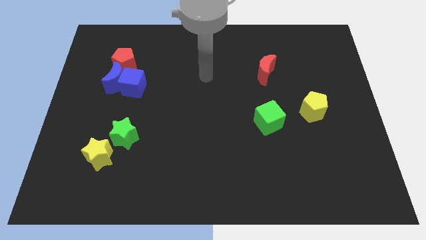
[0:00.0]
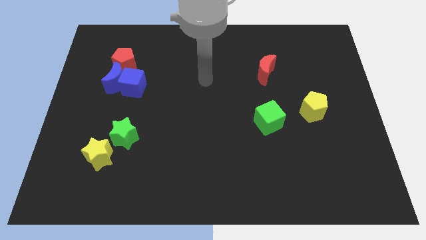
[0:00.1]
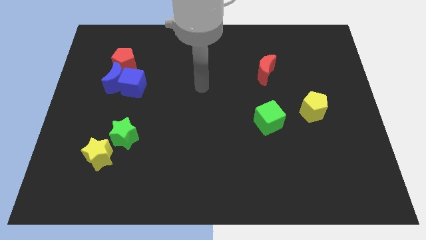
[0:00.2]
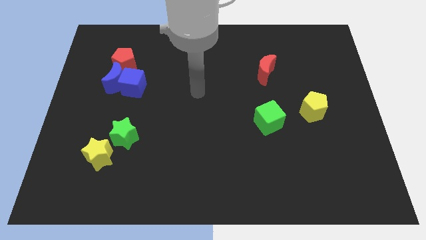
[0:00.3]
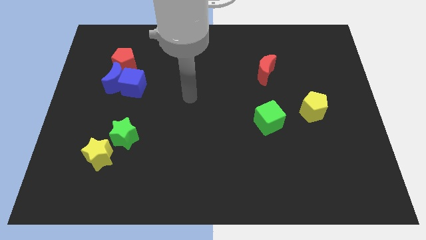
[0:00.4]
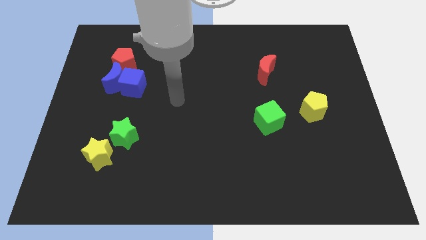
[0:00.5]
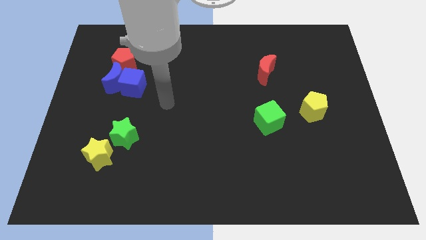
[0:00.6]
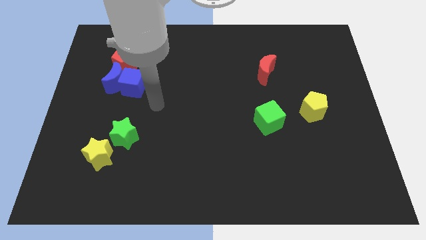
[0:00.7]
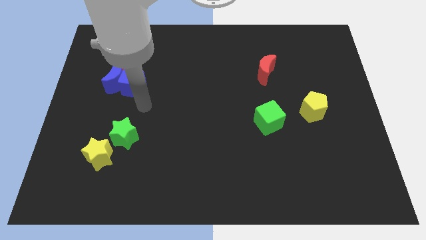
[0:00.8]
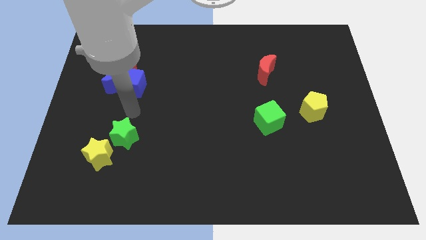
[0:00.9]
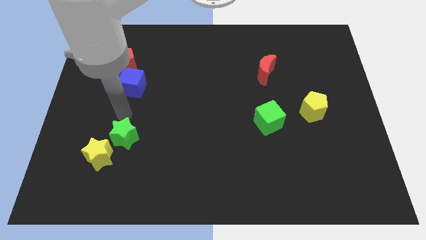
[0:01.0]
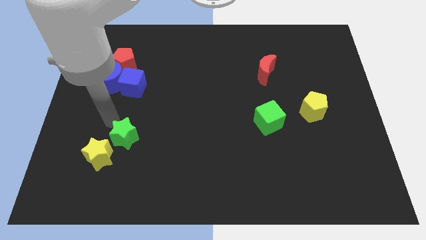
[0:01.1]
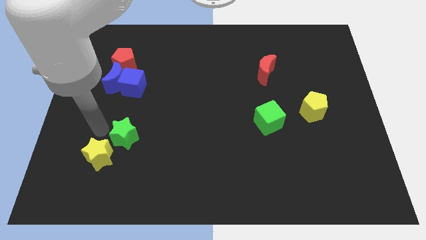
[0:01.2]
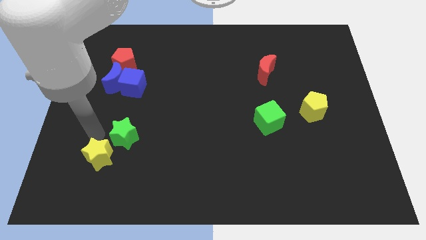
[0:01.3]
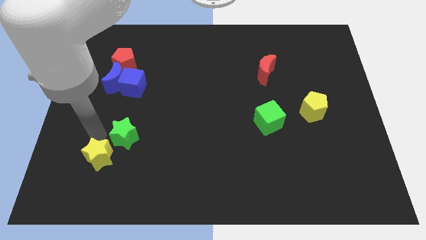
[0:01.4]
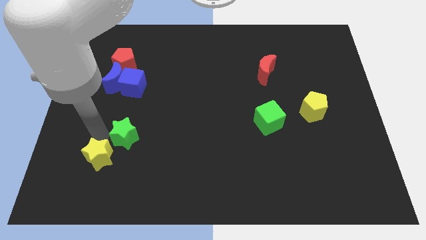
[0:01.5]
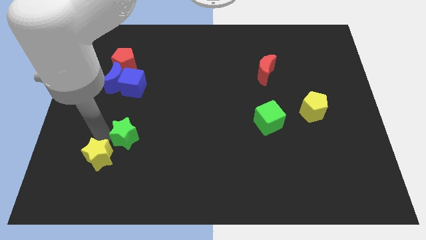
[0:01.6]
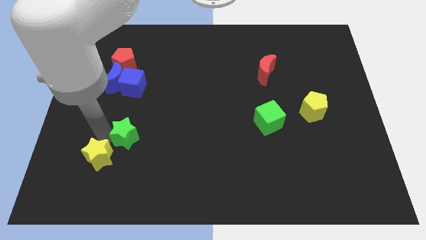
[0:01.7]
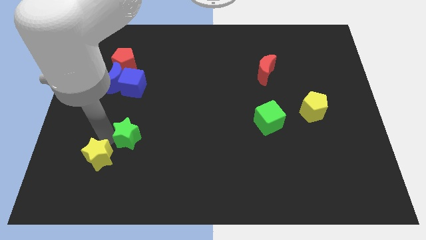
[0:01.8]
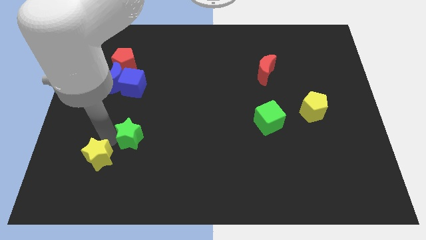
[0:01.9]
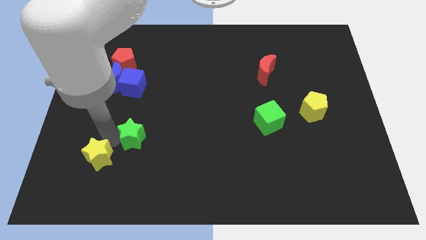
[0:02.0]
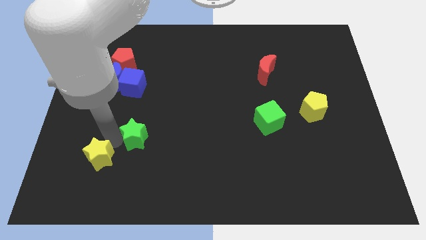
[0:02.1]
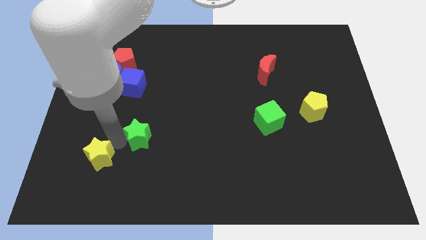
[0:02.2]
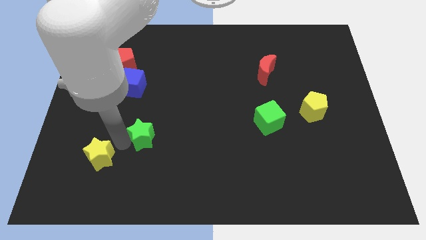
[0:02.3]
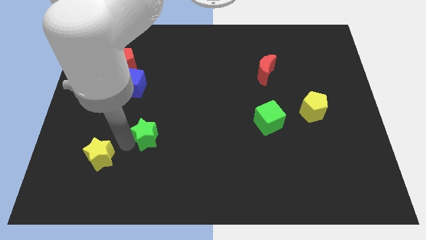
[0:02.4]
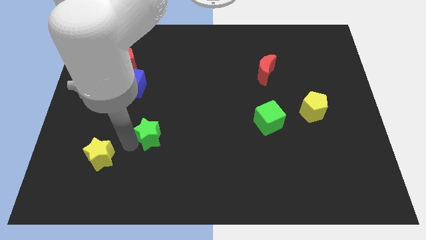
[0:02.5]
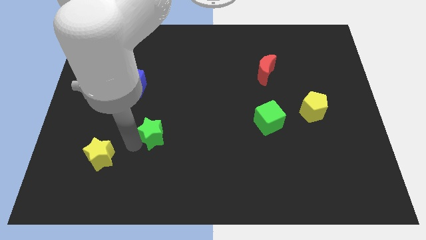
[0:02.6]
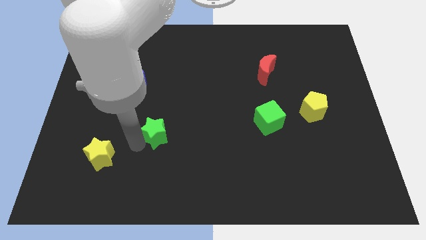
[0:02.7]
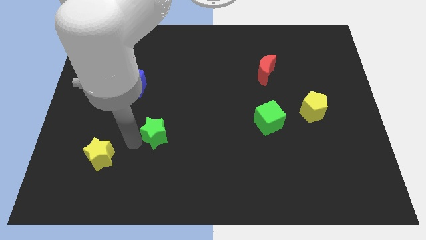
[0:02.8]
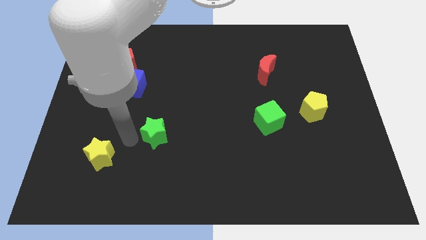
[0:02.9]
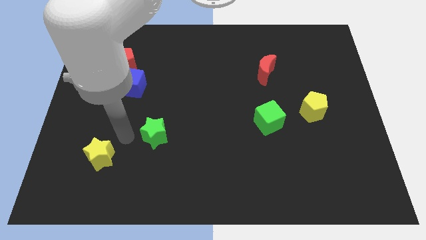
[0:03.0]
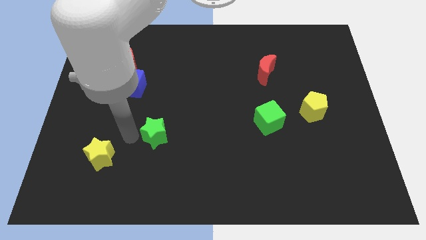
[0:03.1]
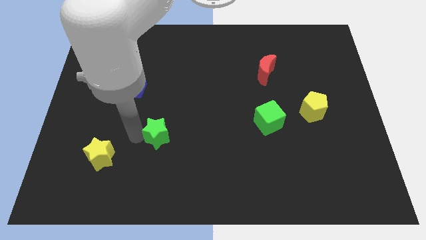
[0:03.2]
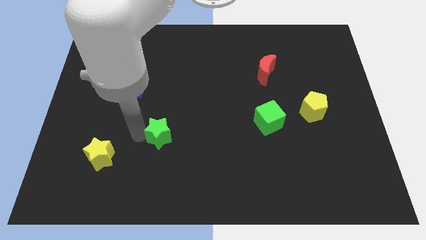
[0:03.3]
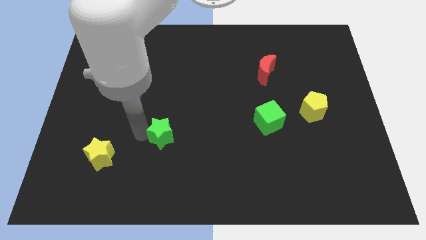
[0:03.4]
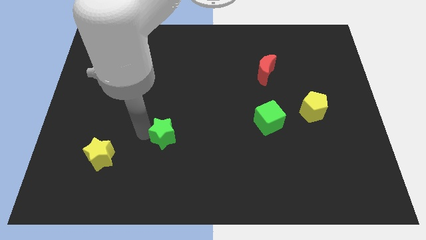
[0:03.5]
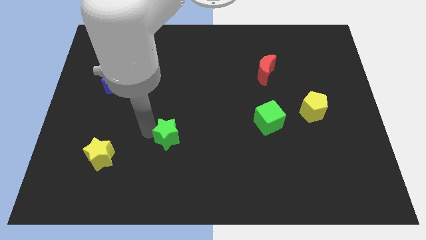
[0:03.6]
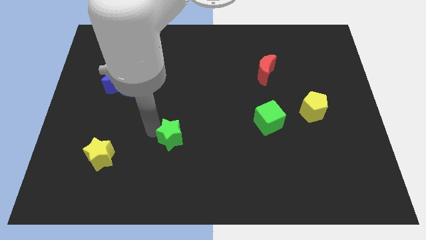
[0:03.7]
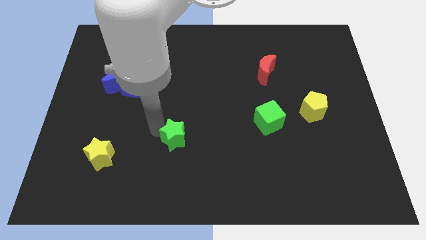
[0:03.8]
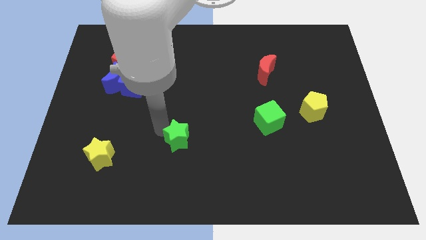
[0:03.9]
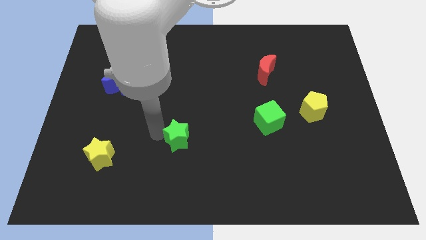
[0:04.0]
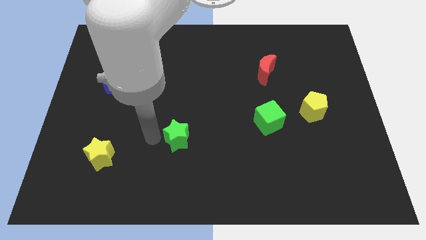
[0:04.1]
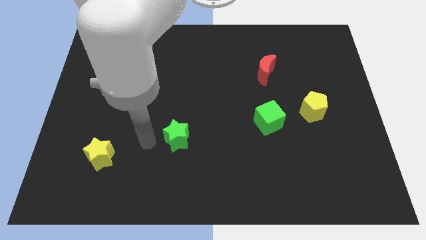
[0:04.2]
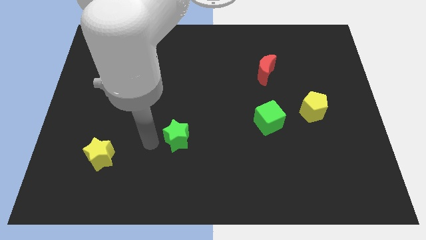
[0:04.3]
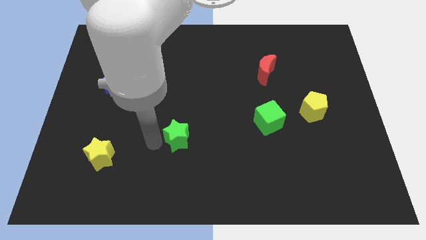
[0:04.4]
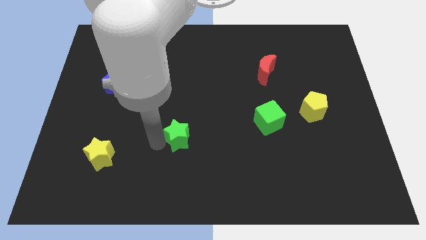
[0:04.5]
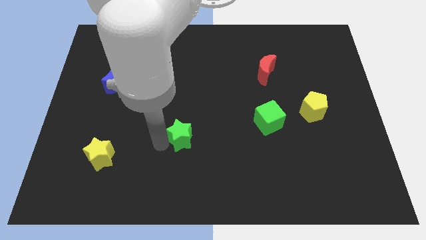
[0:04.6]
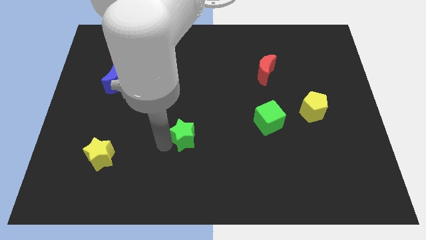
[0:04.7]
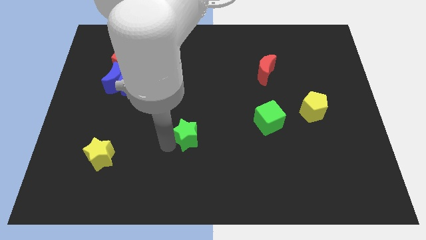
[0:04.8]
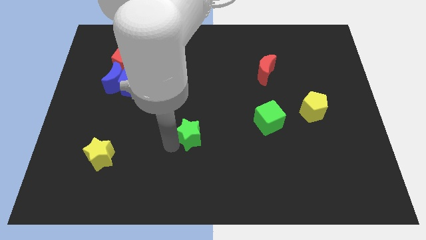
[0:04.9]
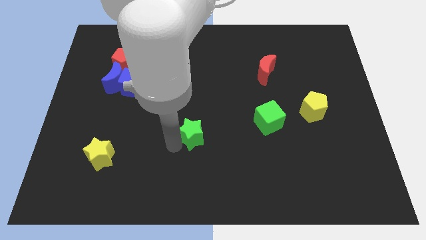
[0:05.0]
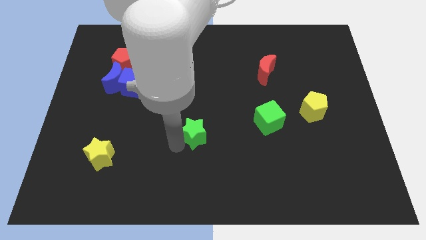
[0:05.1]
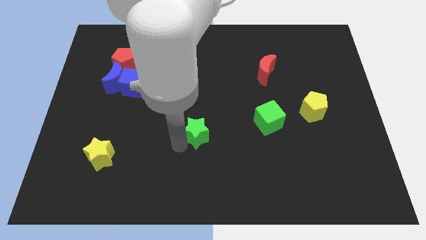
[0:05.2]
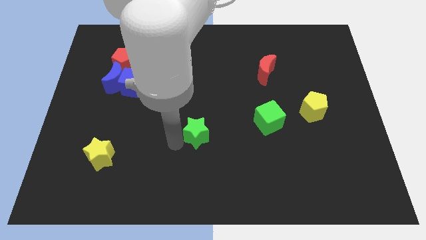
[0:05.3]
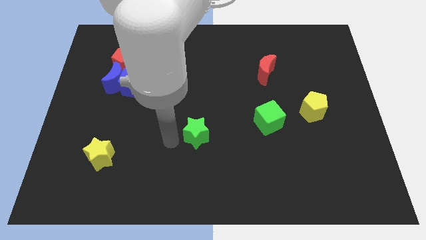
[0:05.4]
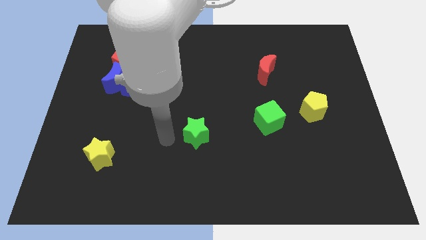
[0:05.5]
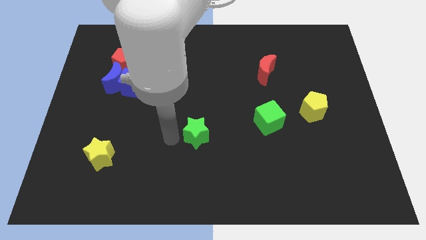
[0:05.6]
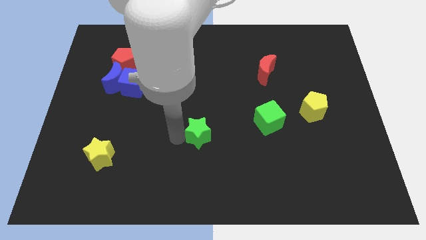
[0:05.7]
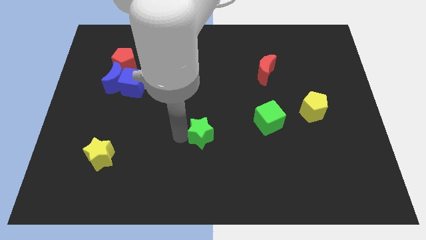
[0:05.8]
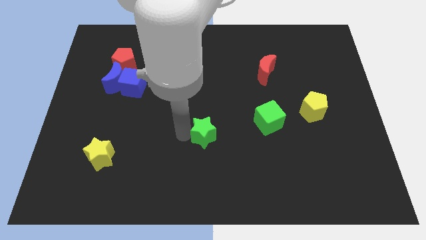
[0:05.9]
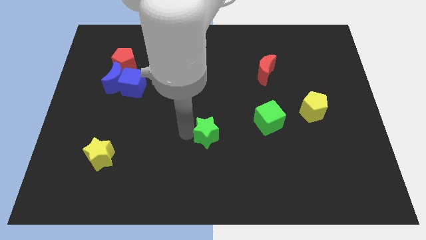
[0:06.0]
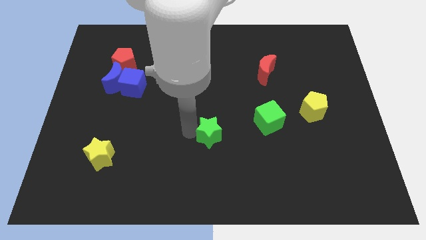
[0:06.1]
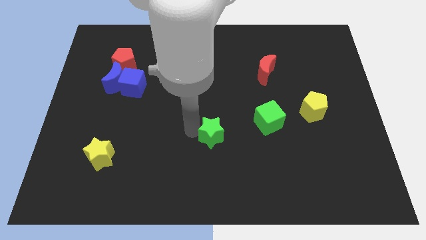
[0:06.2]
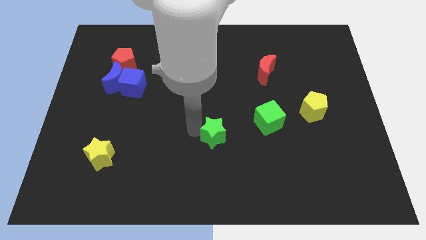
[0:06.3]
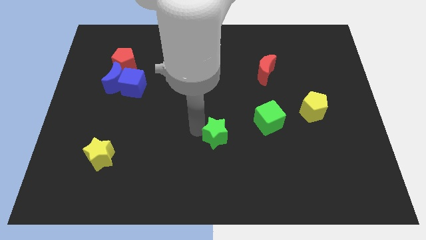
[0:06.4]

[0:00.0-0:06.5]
move the green star right

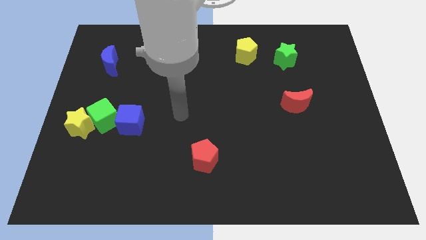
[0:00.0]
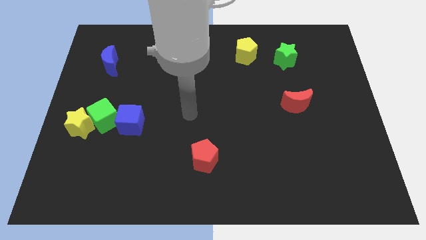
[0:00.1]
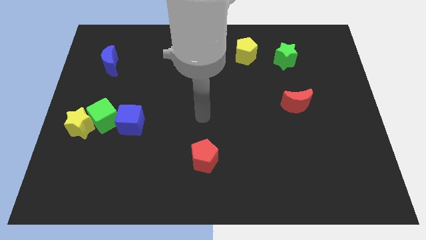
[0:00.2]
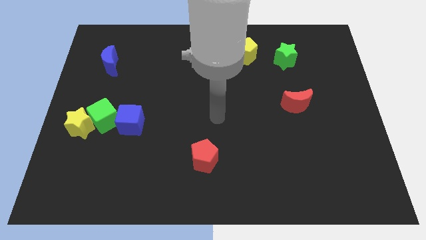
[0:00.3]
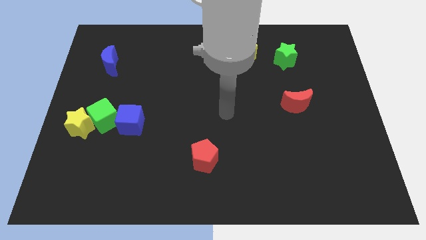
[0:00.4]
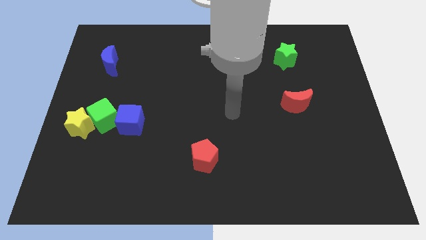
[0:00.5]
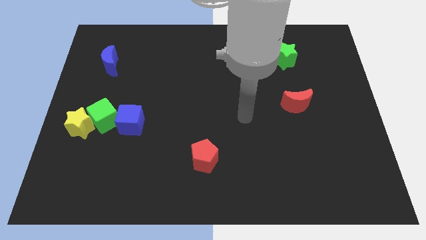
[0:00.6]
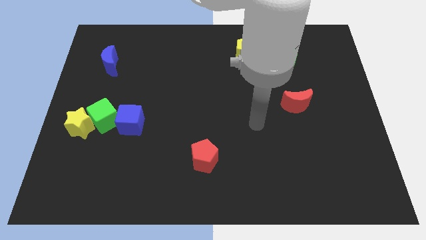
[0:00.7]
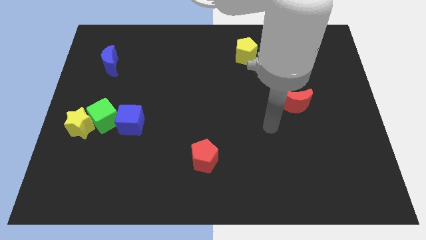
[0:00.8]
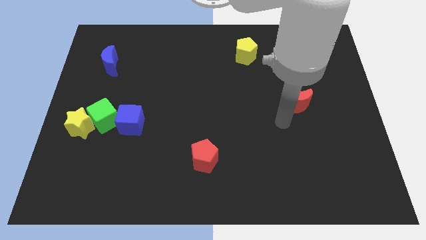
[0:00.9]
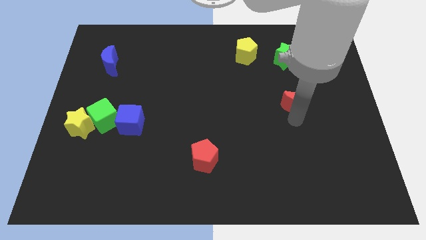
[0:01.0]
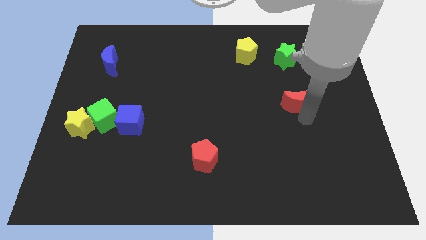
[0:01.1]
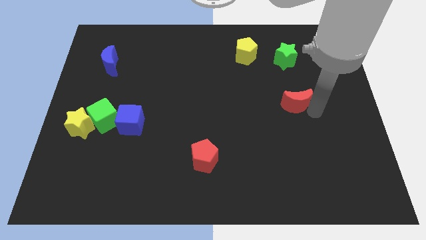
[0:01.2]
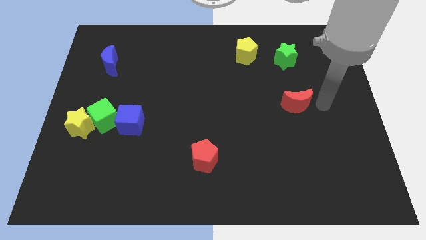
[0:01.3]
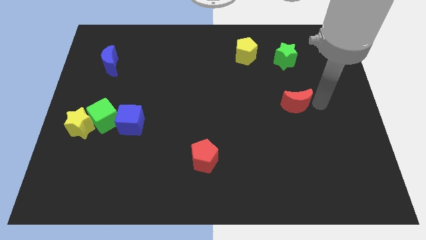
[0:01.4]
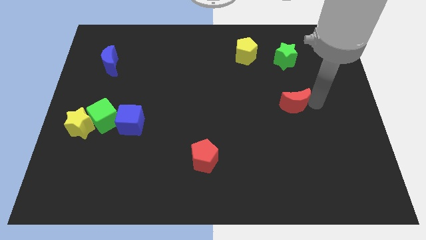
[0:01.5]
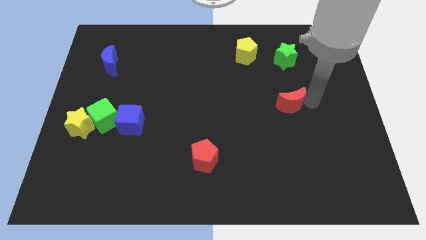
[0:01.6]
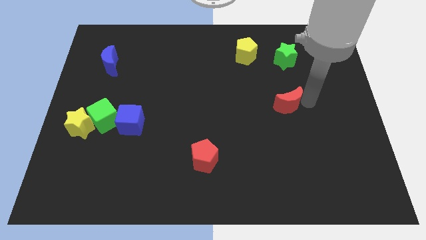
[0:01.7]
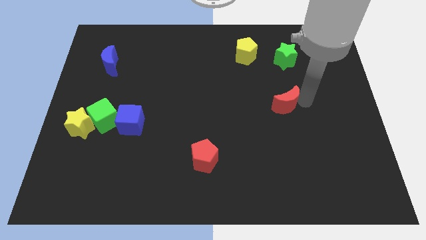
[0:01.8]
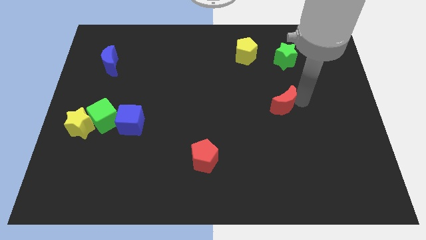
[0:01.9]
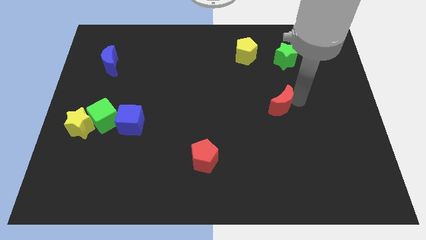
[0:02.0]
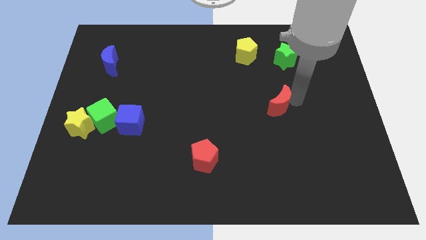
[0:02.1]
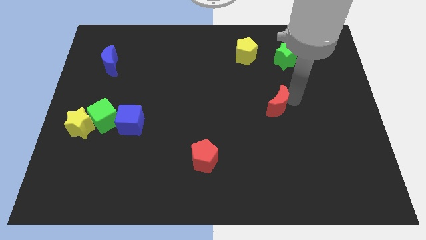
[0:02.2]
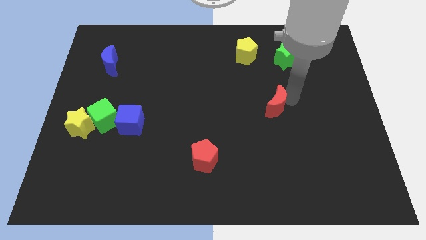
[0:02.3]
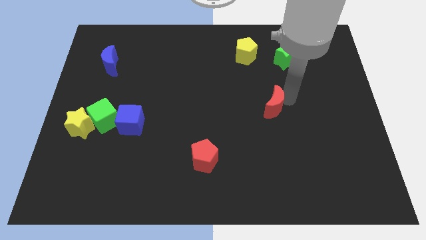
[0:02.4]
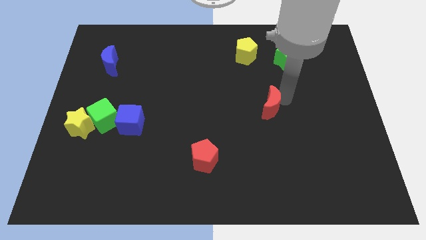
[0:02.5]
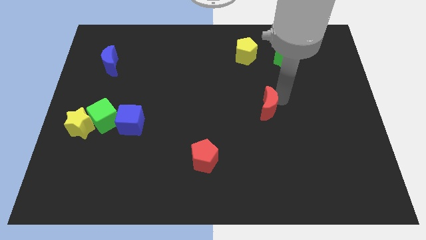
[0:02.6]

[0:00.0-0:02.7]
slightly slide the red moon to the left
